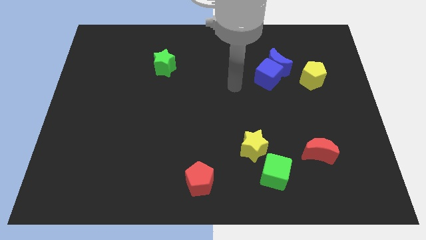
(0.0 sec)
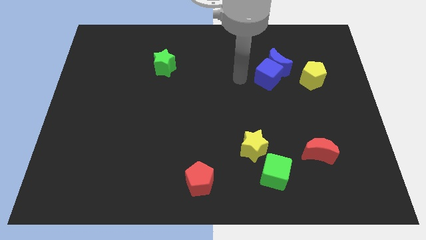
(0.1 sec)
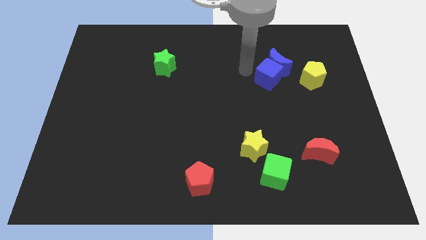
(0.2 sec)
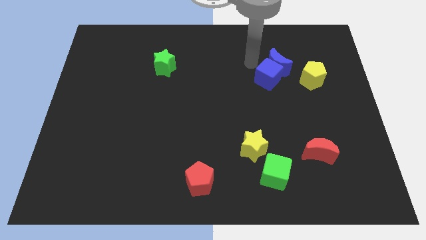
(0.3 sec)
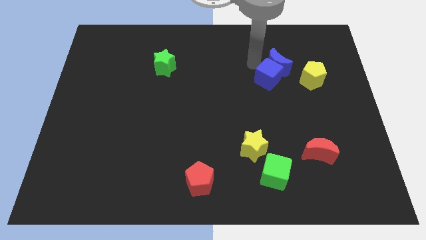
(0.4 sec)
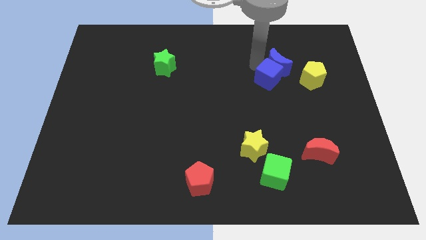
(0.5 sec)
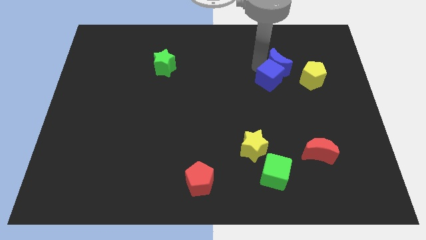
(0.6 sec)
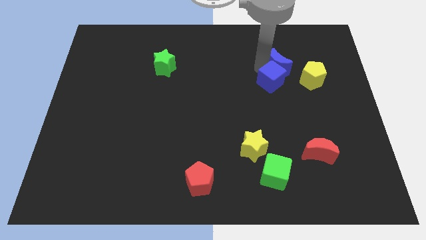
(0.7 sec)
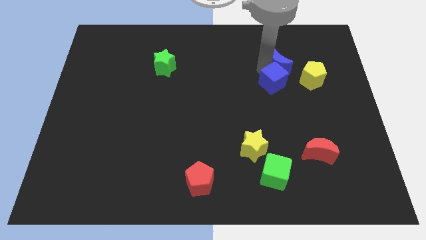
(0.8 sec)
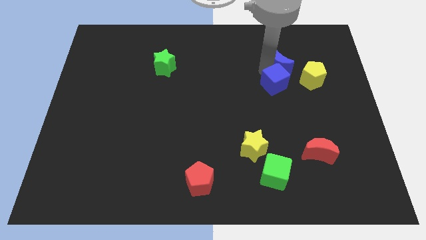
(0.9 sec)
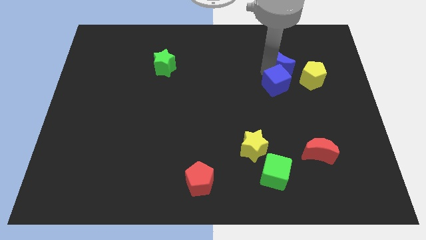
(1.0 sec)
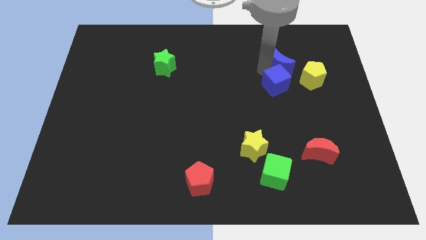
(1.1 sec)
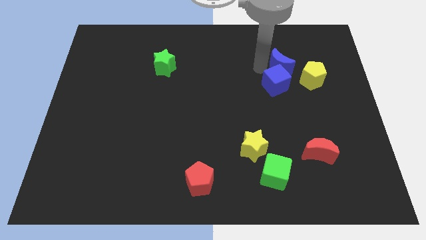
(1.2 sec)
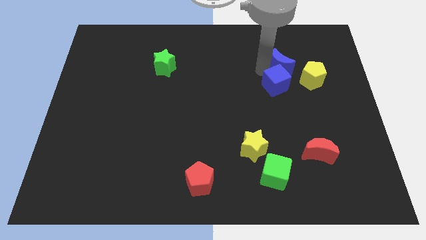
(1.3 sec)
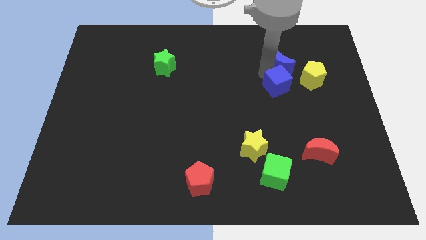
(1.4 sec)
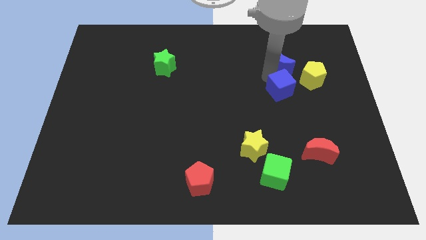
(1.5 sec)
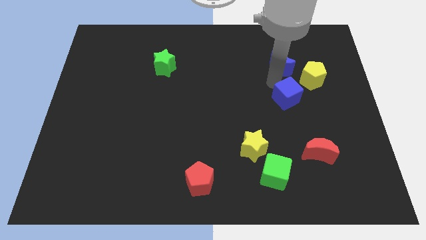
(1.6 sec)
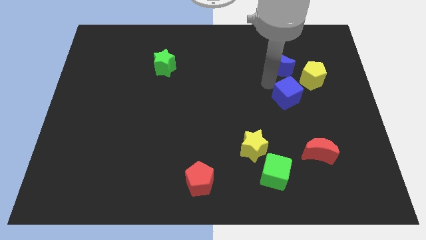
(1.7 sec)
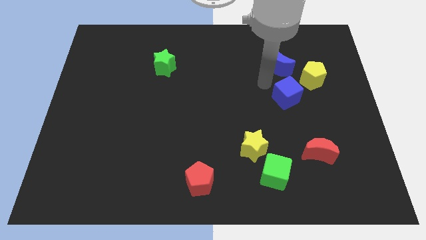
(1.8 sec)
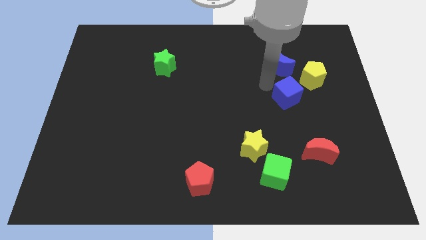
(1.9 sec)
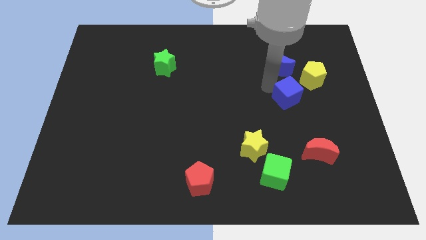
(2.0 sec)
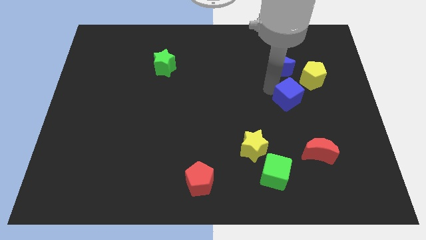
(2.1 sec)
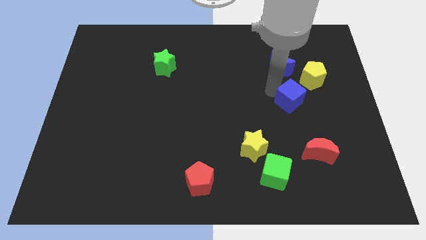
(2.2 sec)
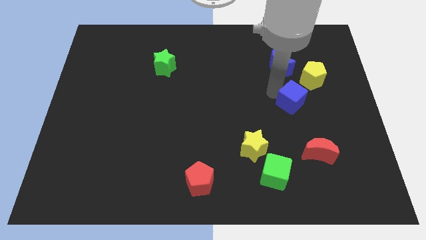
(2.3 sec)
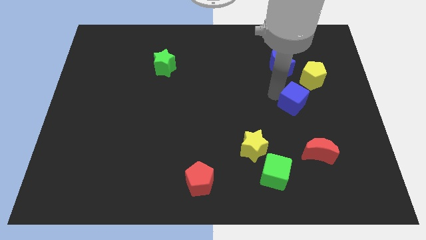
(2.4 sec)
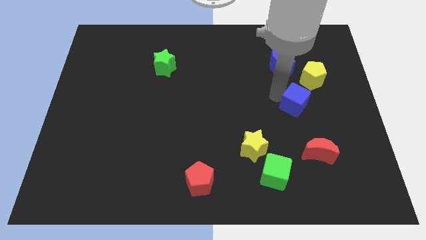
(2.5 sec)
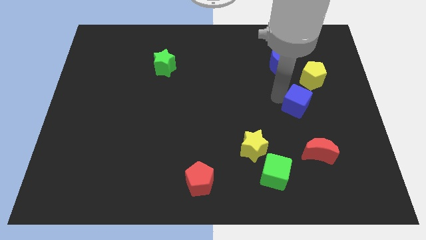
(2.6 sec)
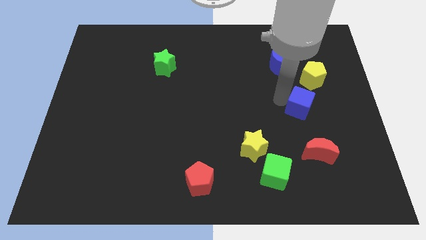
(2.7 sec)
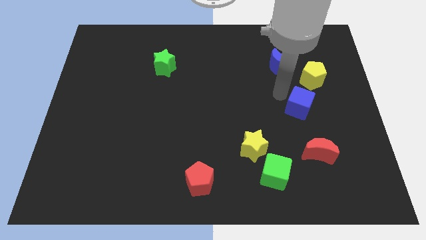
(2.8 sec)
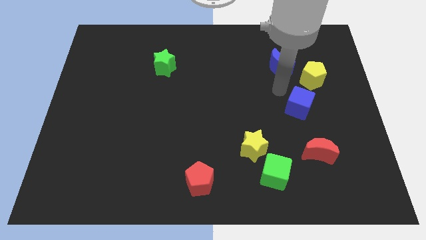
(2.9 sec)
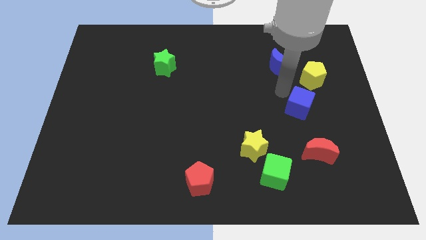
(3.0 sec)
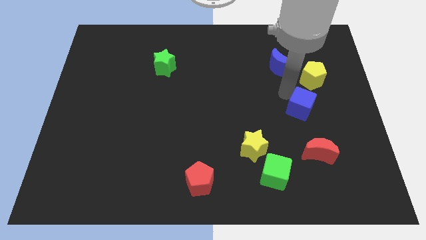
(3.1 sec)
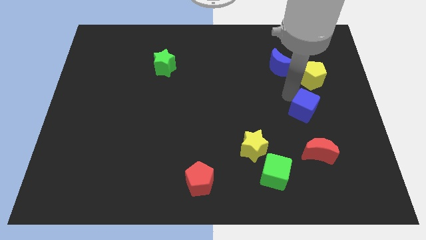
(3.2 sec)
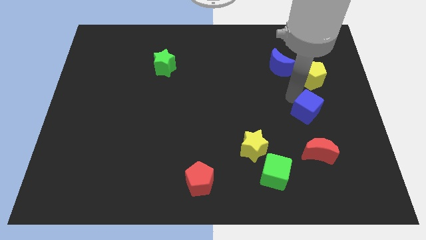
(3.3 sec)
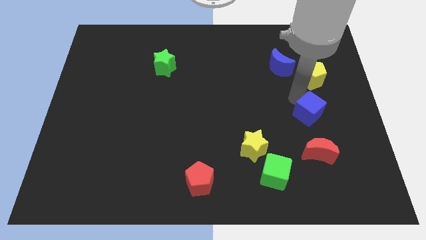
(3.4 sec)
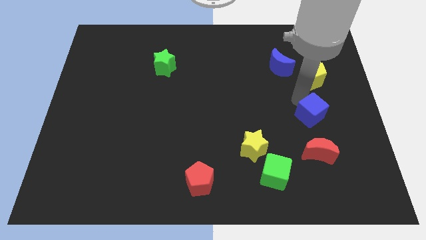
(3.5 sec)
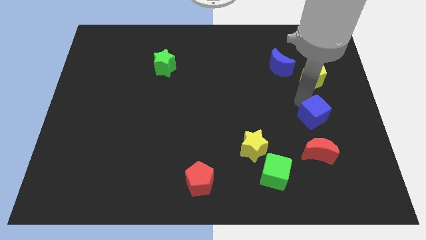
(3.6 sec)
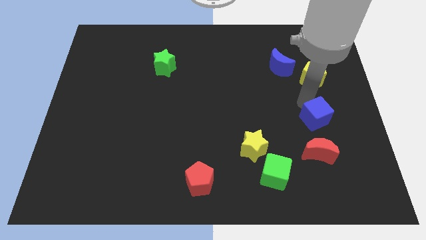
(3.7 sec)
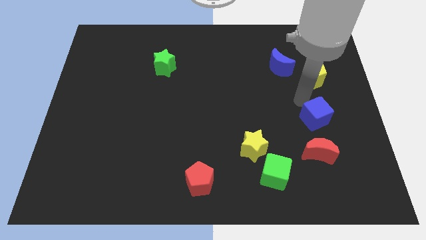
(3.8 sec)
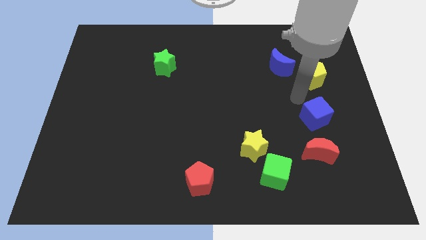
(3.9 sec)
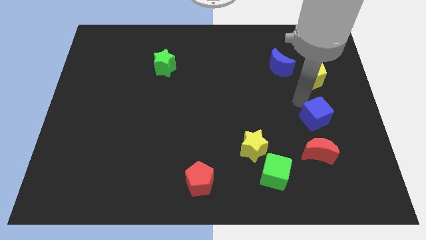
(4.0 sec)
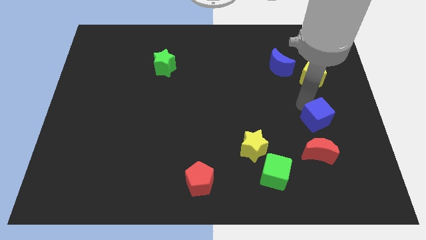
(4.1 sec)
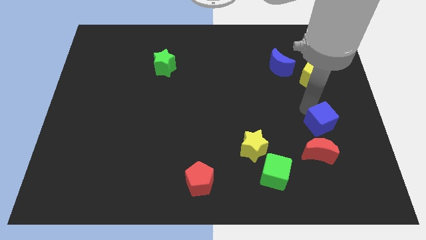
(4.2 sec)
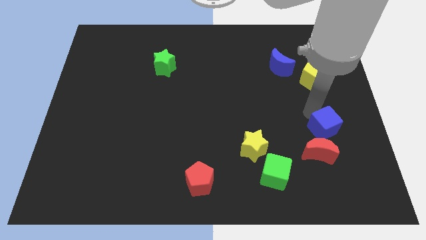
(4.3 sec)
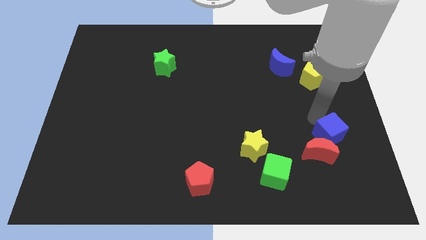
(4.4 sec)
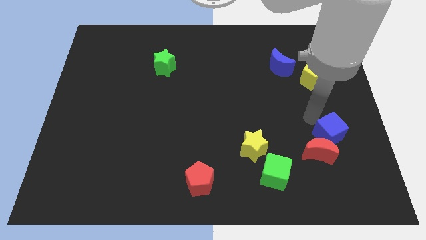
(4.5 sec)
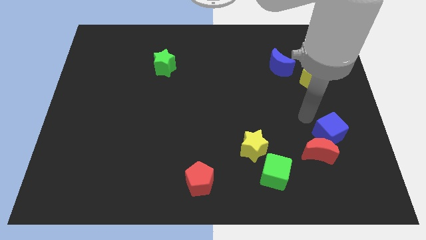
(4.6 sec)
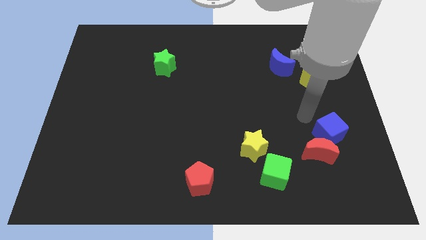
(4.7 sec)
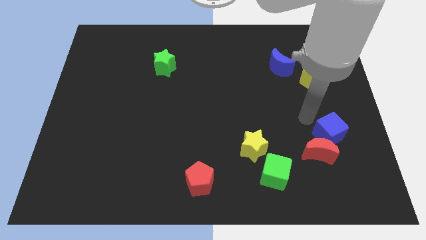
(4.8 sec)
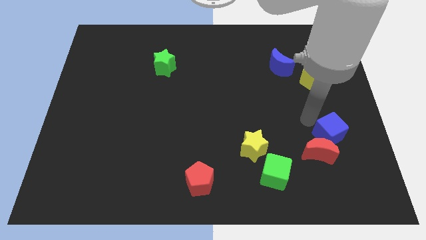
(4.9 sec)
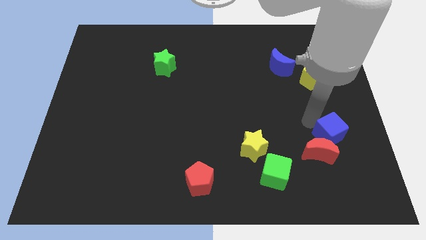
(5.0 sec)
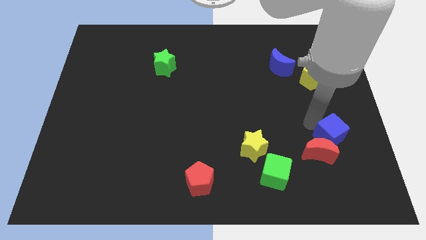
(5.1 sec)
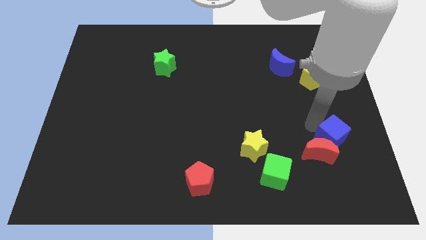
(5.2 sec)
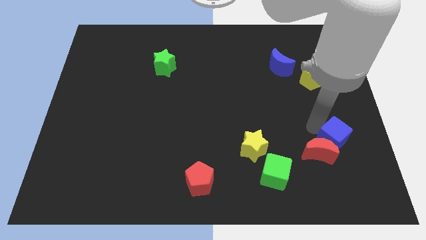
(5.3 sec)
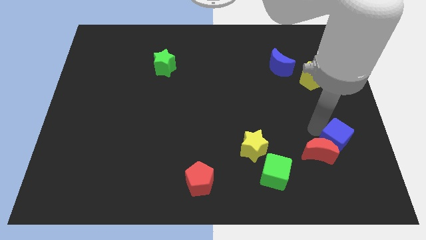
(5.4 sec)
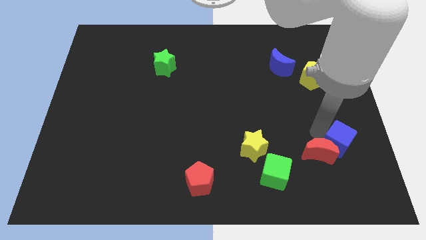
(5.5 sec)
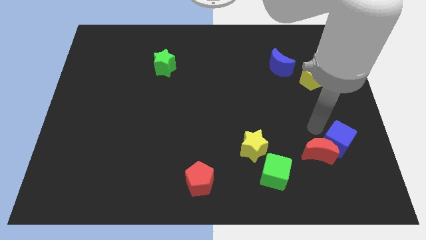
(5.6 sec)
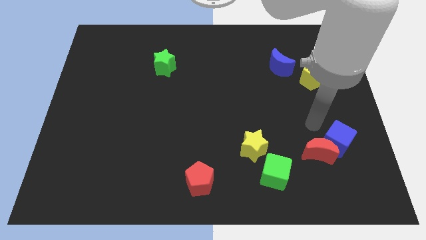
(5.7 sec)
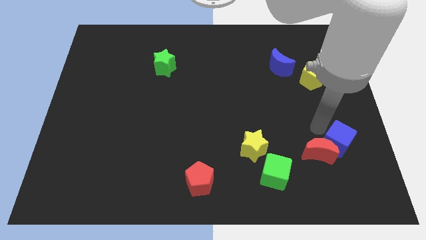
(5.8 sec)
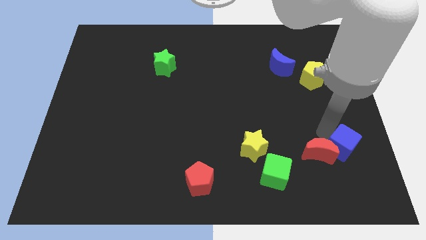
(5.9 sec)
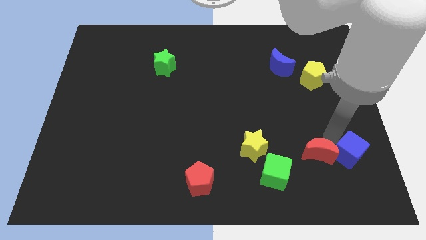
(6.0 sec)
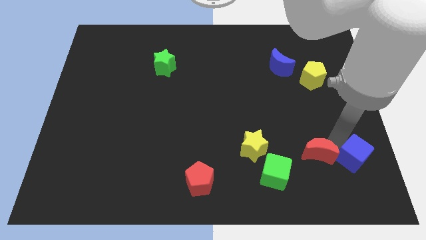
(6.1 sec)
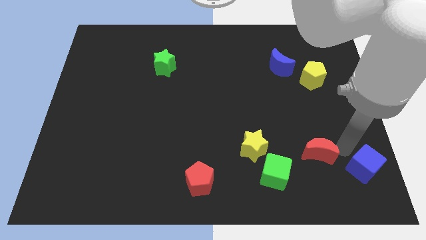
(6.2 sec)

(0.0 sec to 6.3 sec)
move the blue cube to the bottom right corner

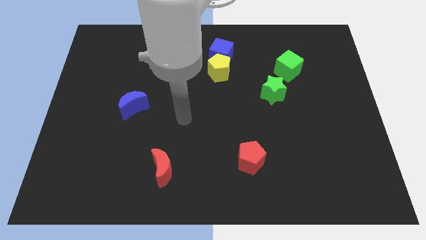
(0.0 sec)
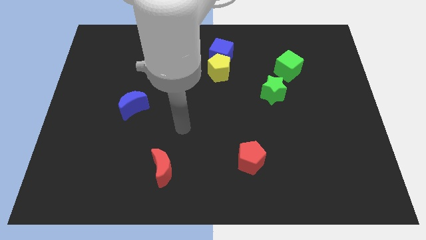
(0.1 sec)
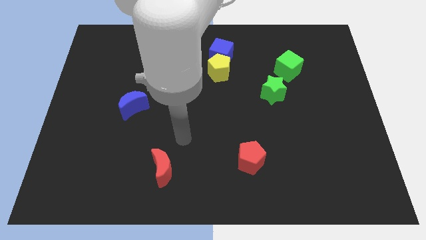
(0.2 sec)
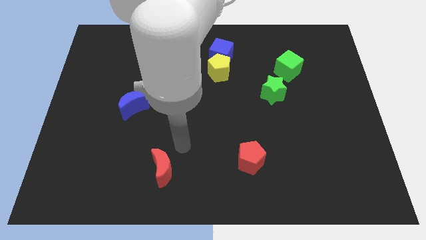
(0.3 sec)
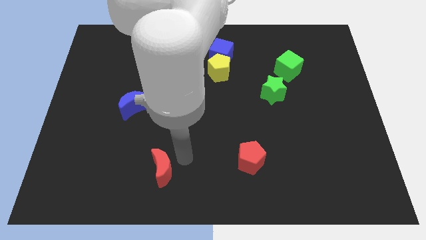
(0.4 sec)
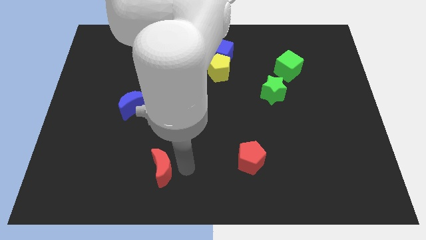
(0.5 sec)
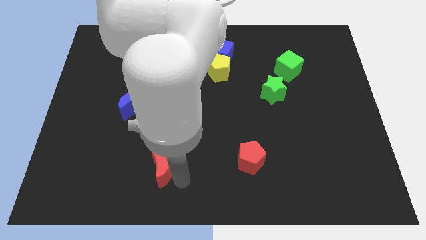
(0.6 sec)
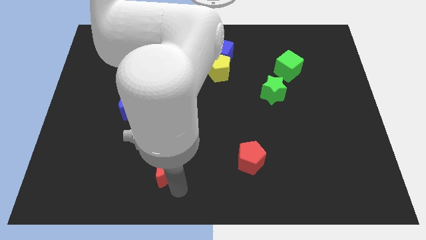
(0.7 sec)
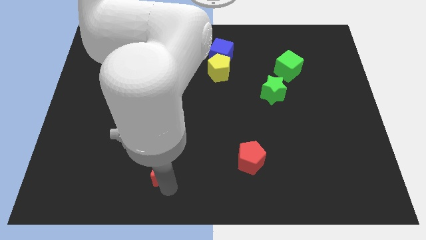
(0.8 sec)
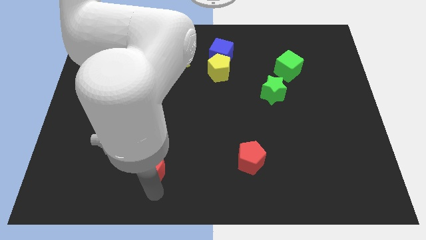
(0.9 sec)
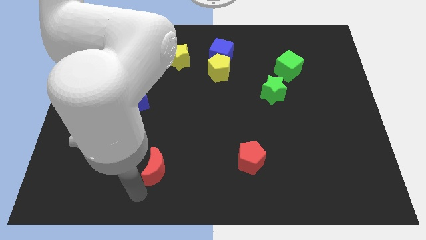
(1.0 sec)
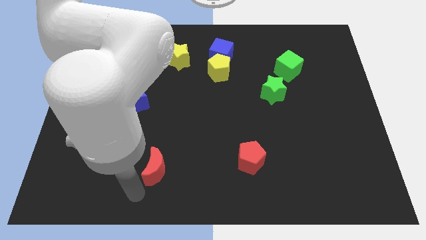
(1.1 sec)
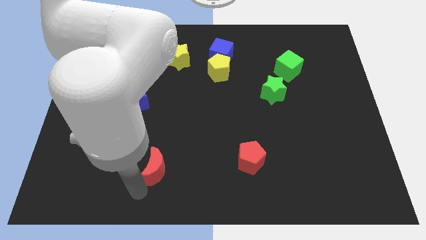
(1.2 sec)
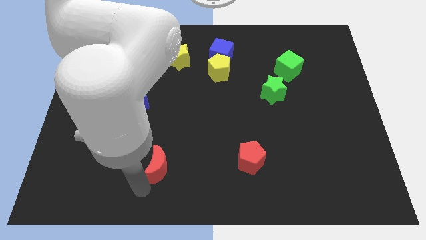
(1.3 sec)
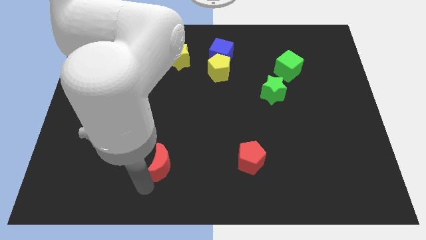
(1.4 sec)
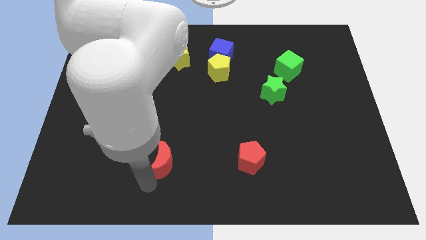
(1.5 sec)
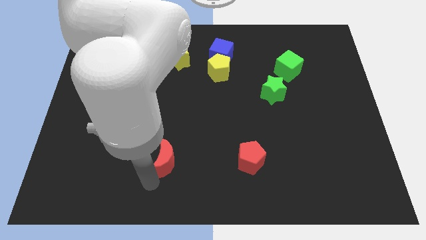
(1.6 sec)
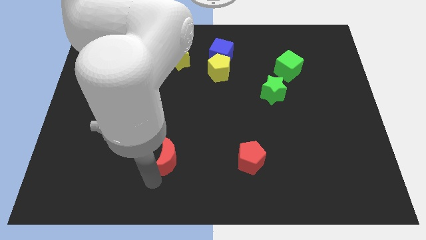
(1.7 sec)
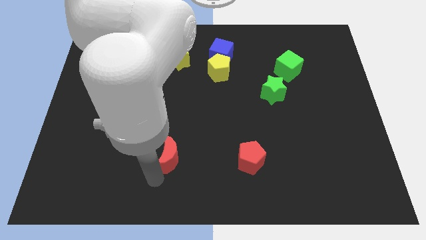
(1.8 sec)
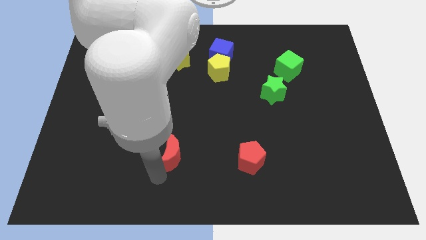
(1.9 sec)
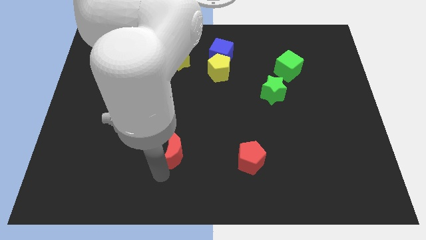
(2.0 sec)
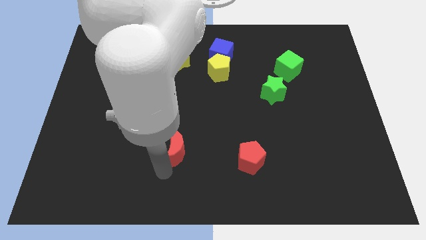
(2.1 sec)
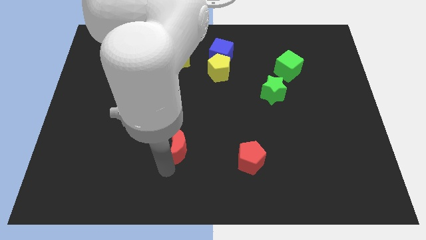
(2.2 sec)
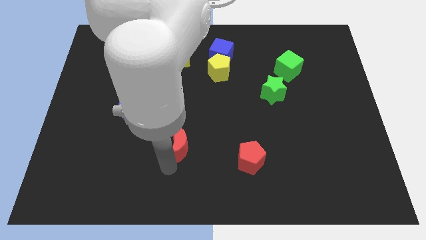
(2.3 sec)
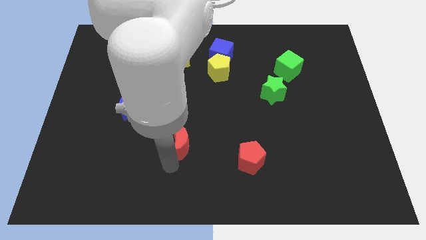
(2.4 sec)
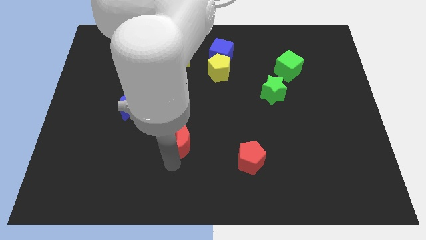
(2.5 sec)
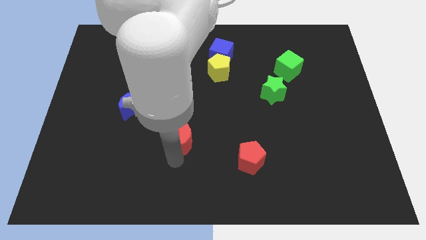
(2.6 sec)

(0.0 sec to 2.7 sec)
slide the red moon to the center of the board
